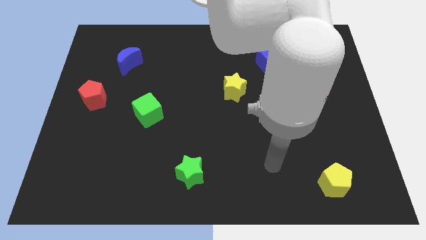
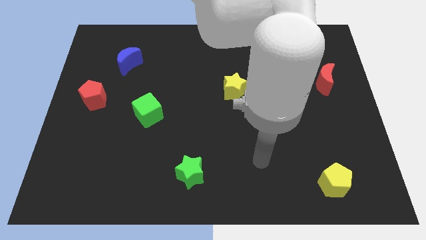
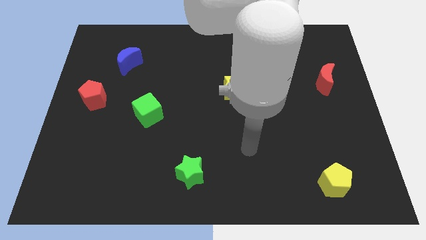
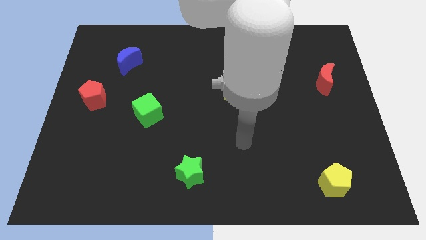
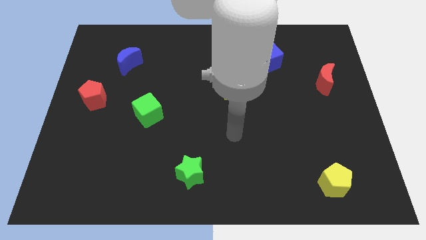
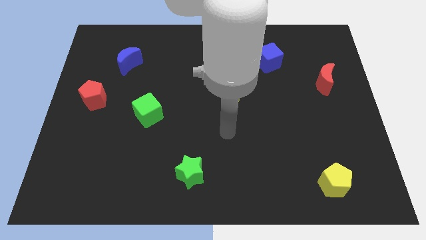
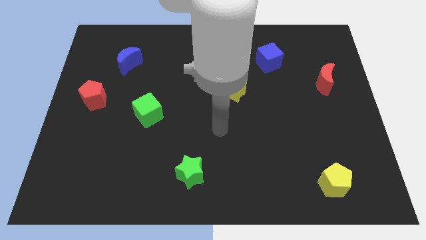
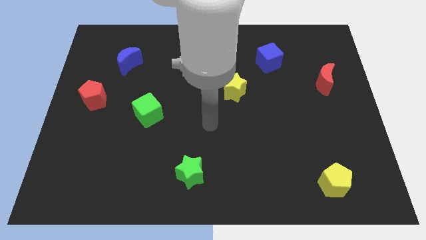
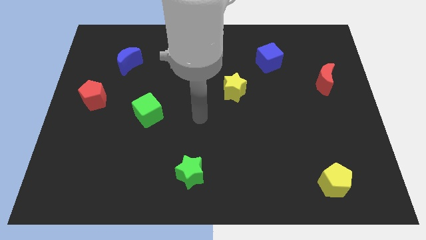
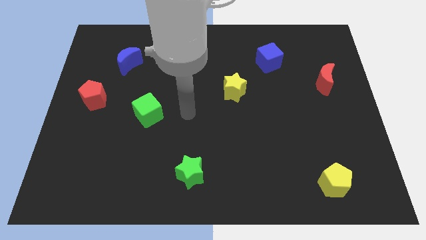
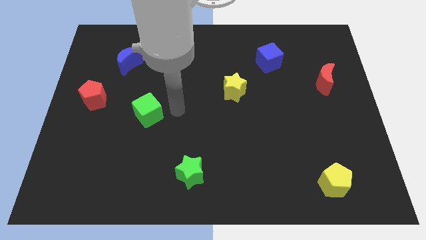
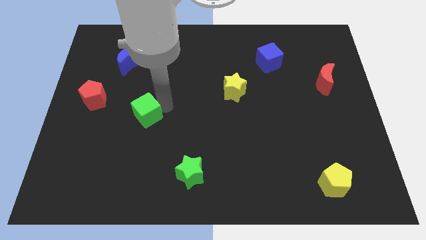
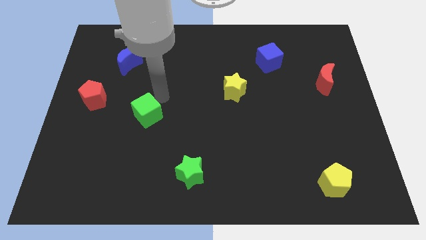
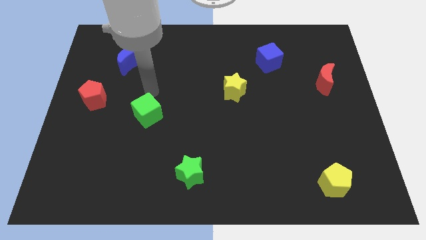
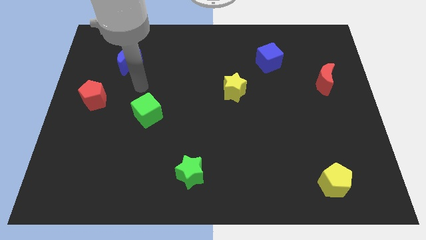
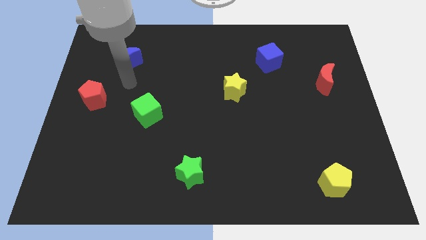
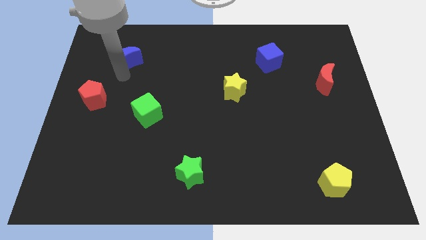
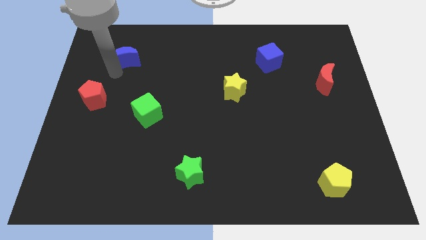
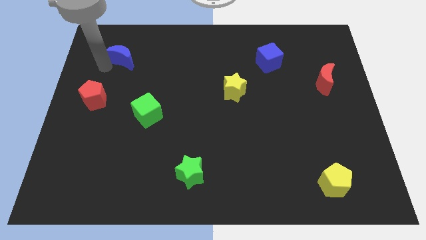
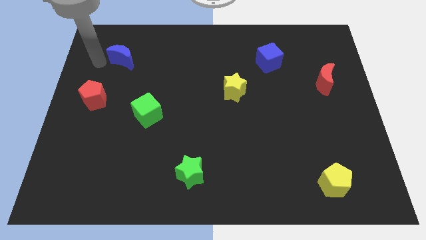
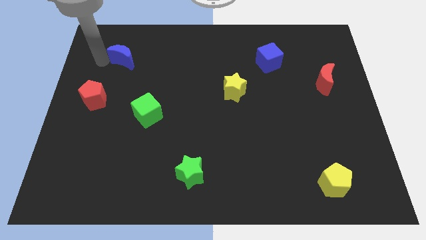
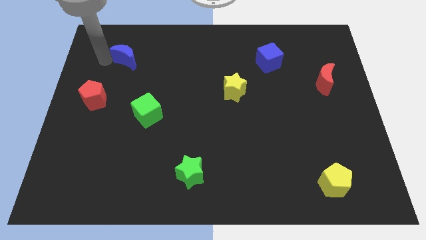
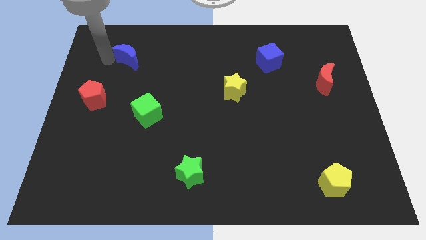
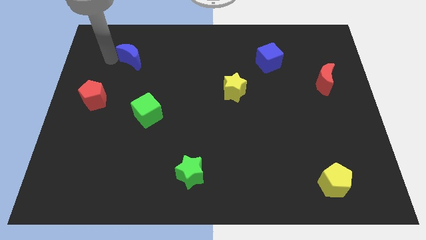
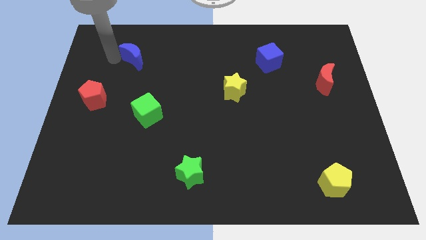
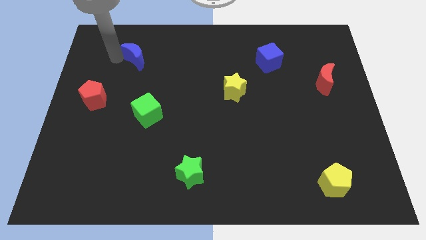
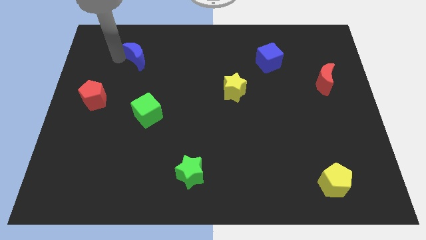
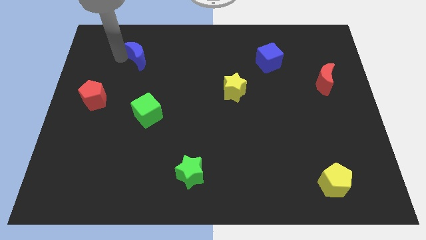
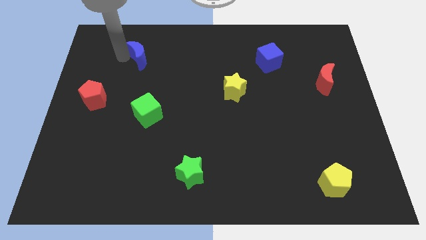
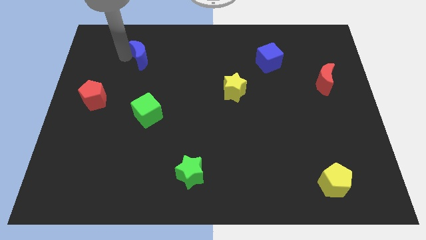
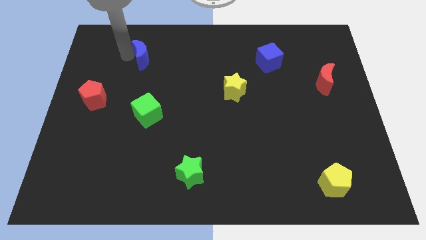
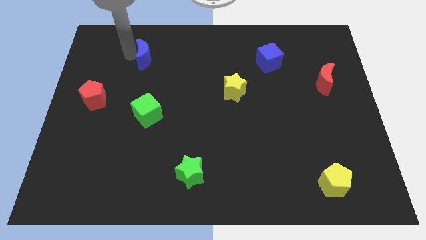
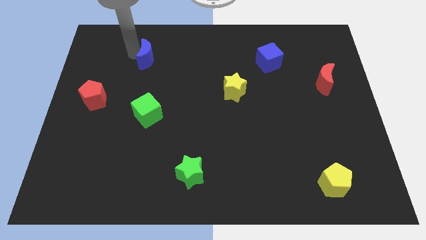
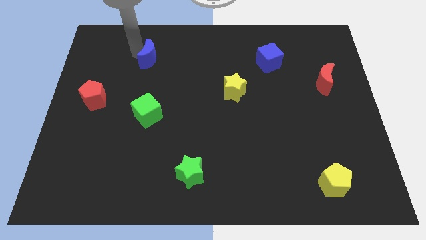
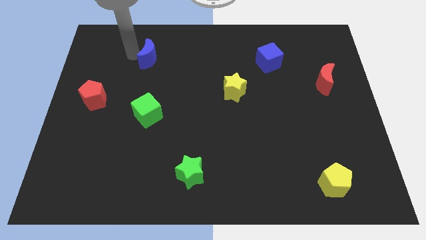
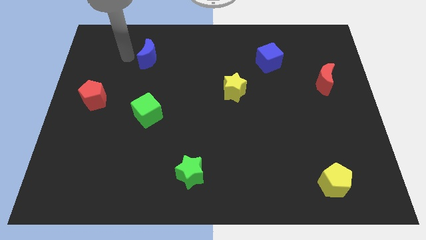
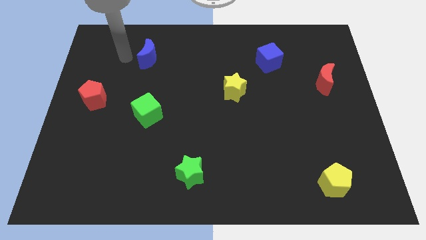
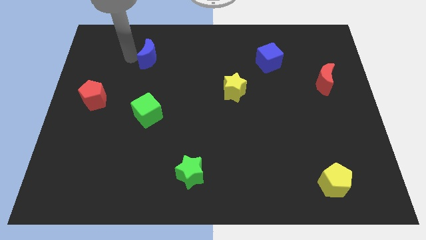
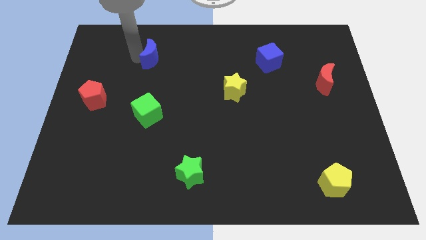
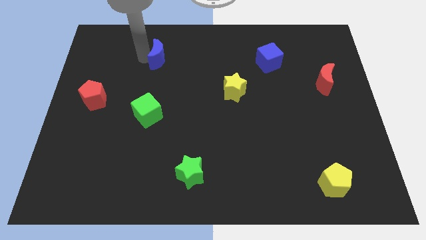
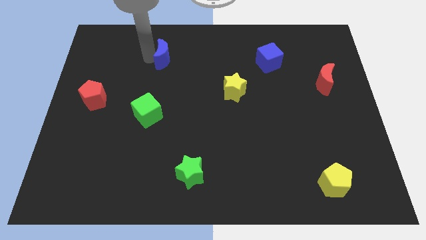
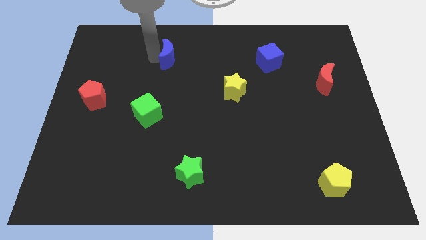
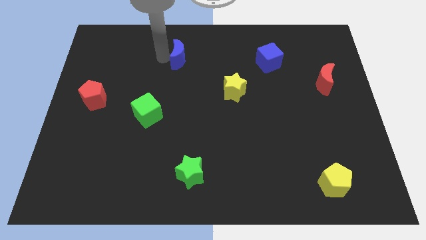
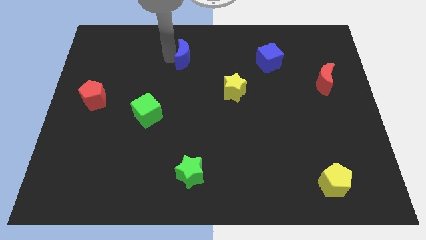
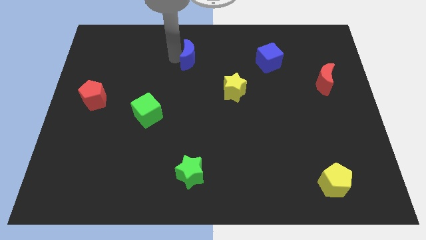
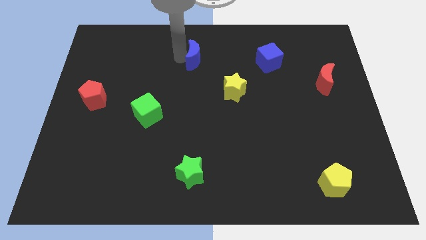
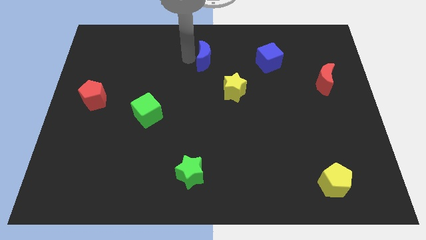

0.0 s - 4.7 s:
push the blue moon to the right

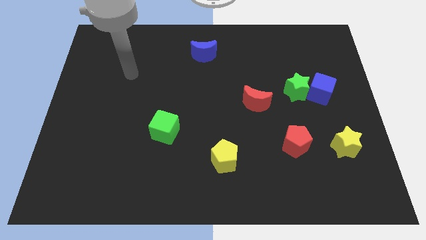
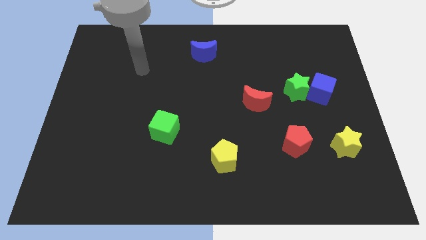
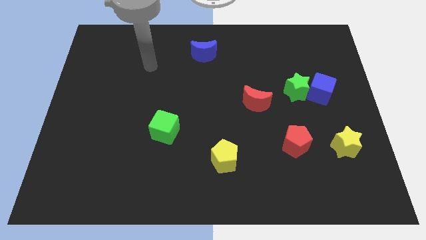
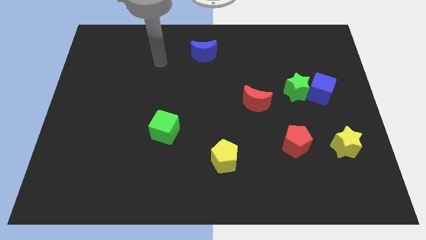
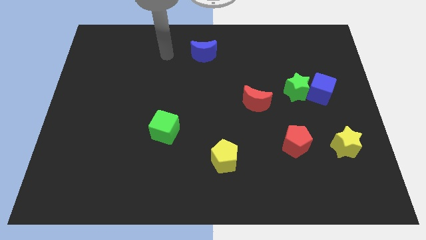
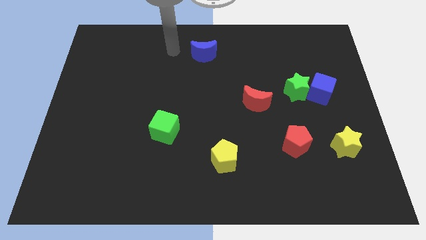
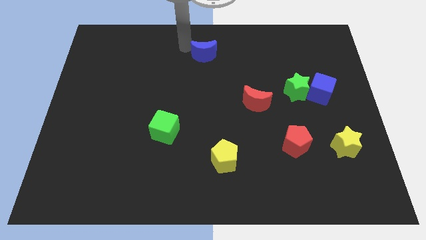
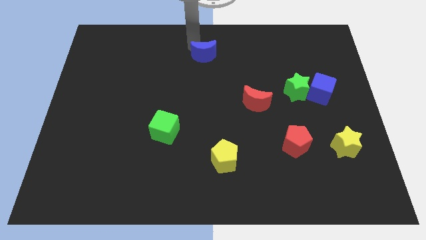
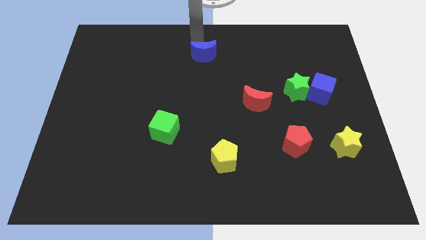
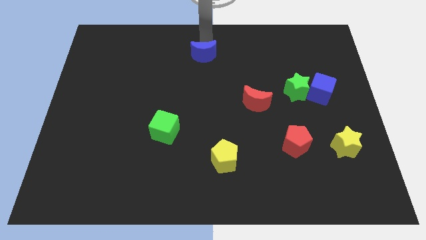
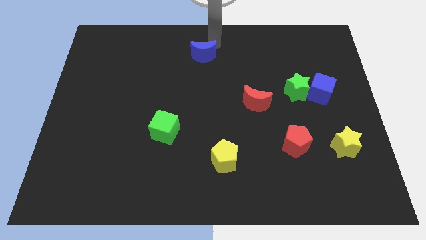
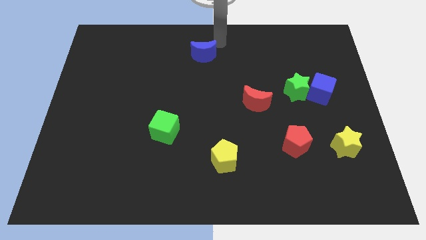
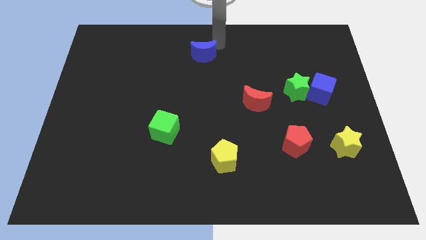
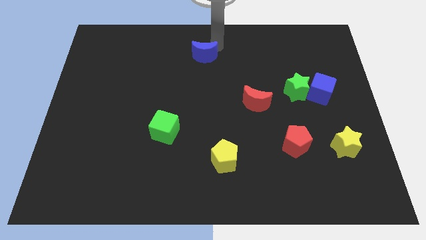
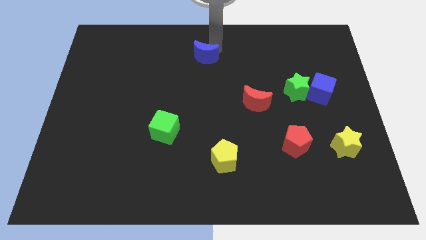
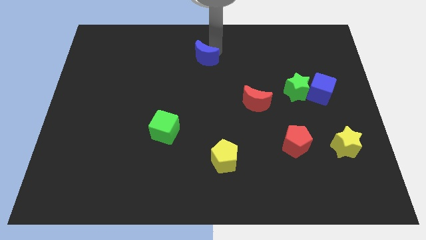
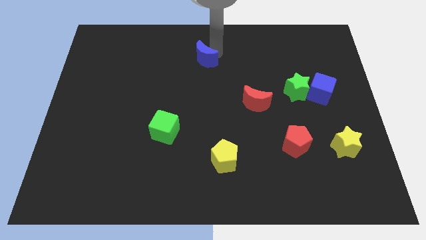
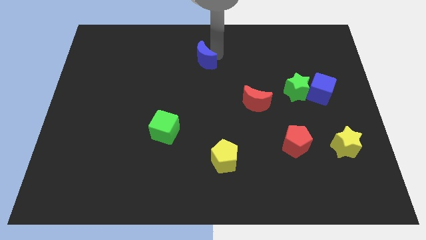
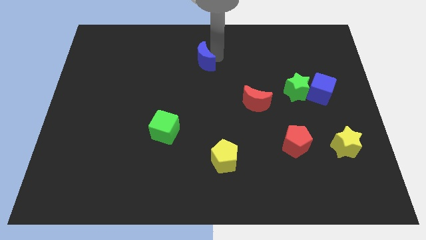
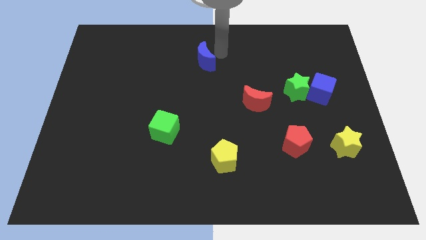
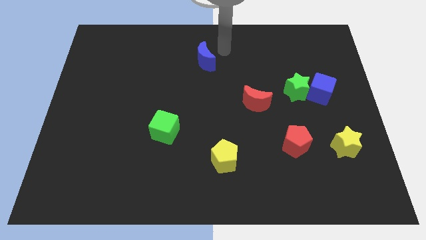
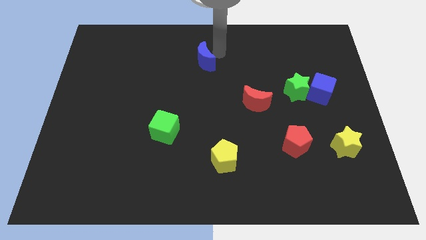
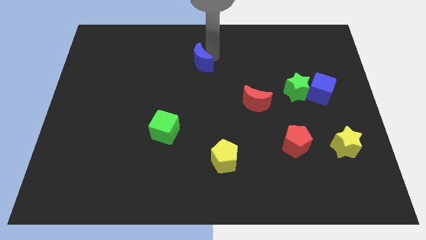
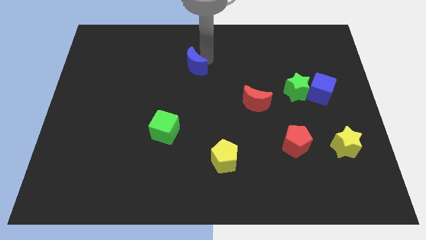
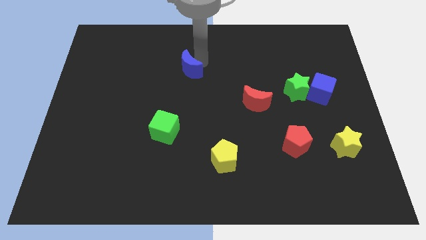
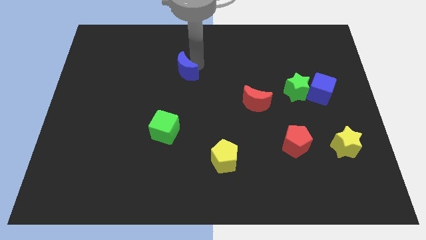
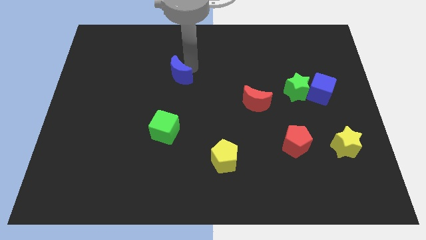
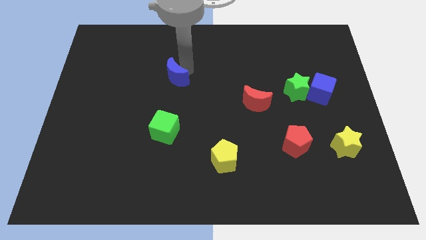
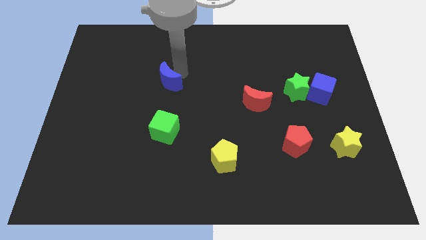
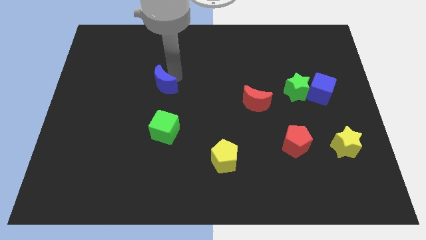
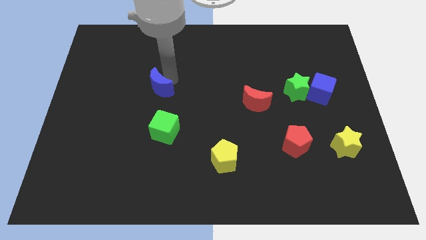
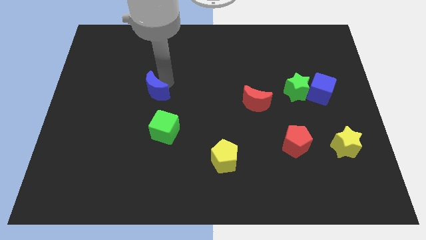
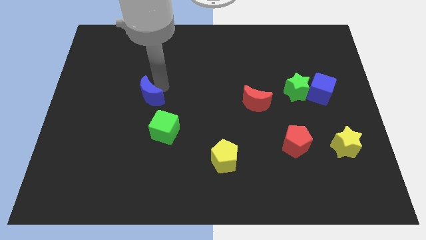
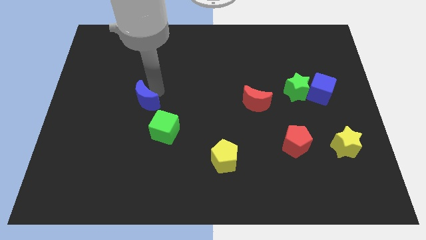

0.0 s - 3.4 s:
slide the blue moon downwards and left
